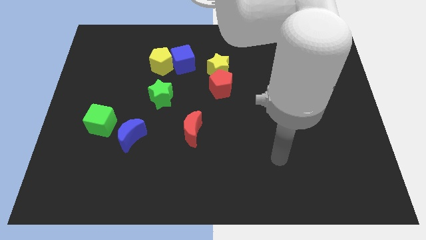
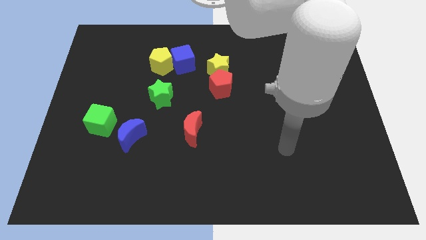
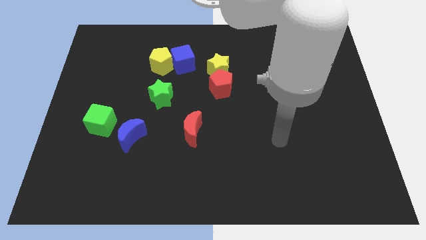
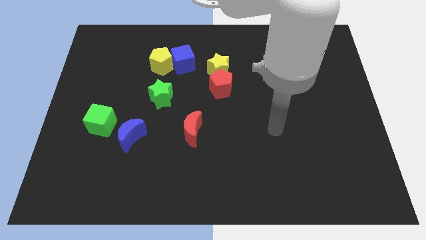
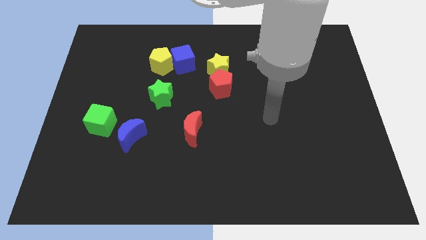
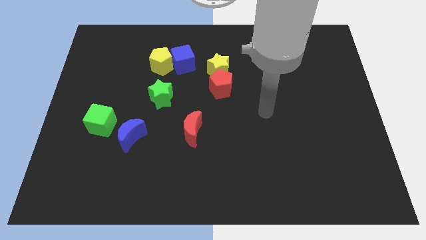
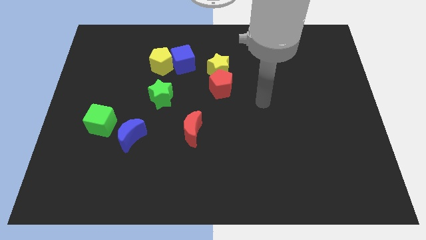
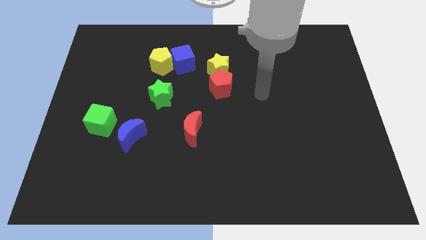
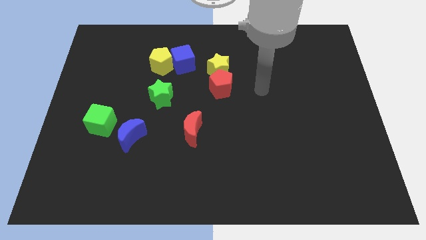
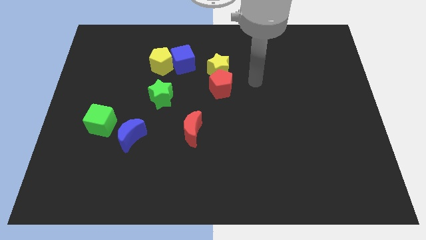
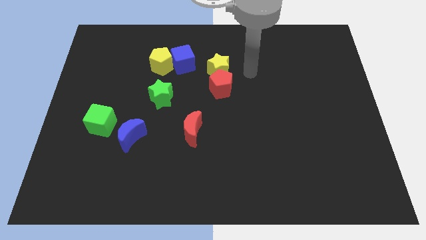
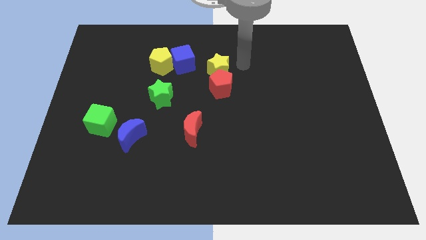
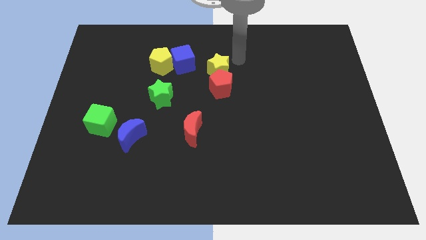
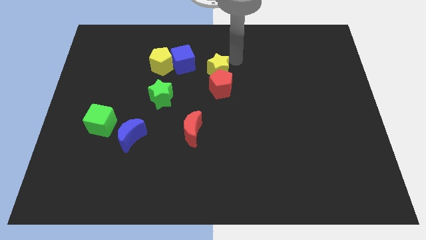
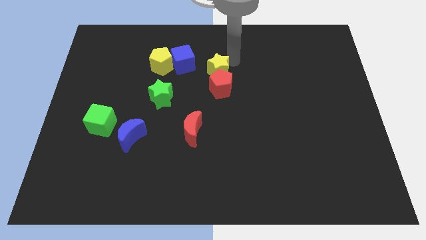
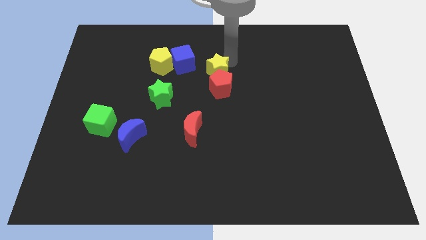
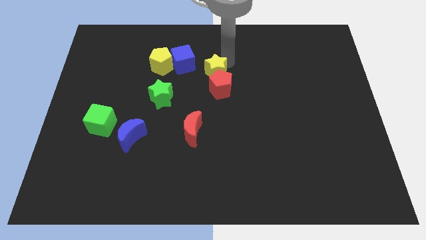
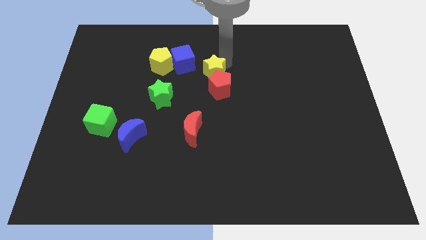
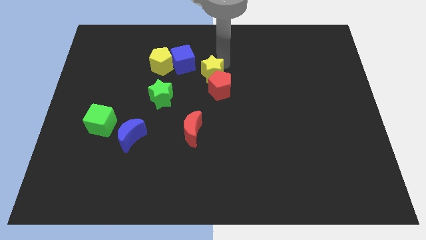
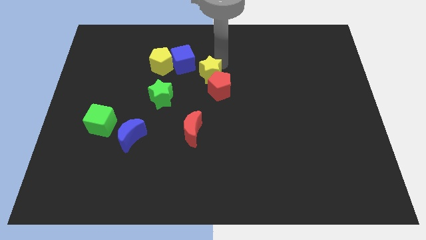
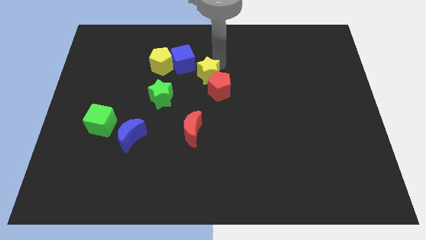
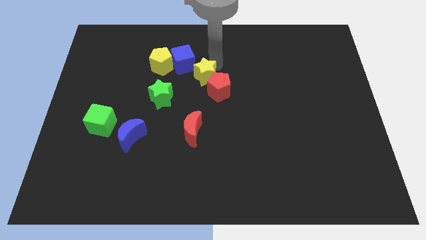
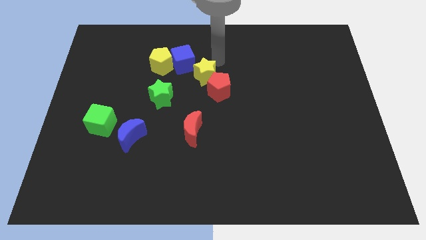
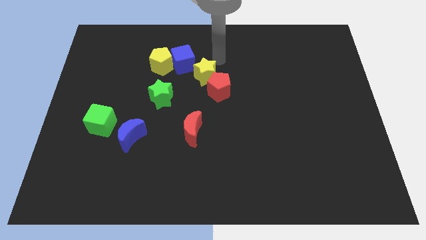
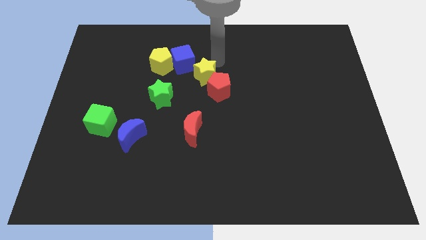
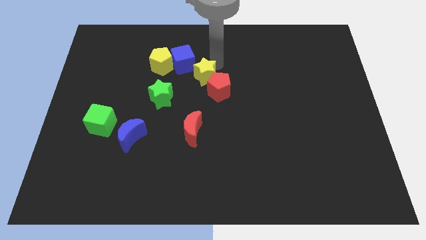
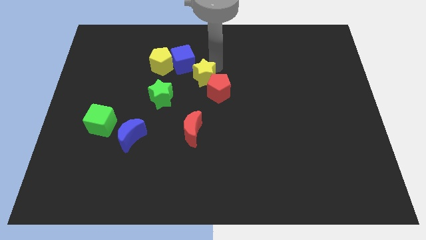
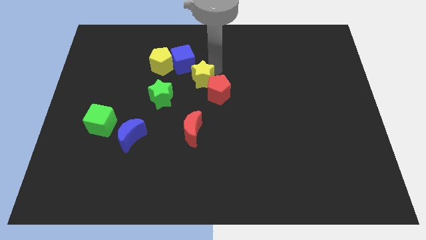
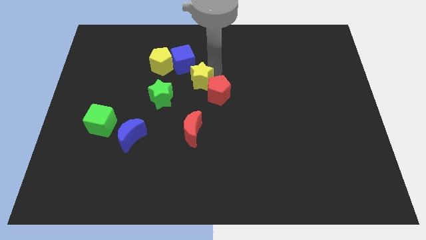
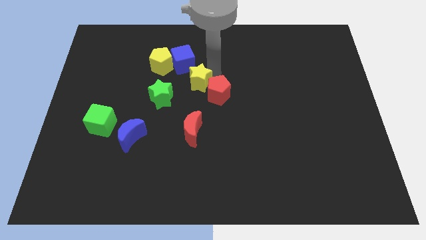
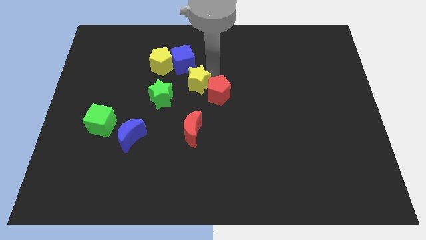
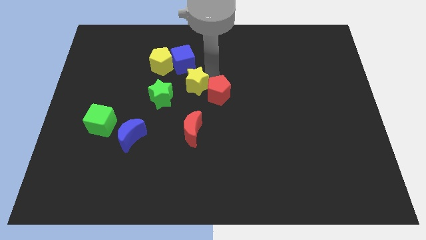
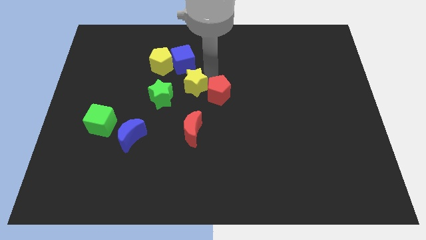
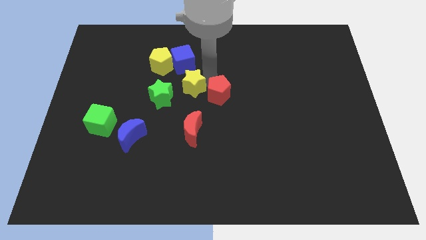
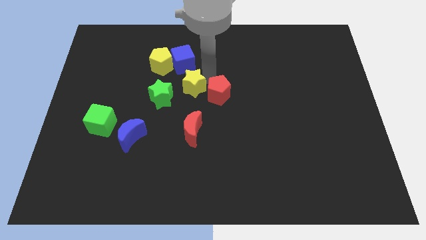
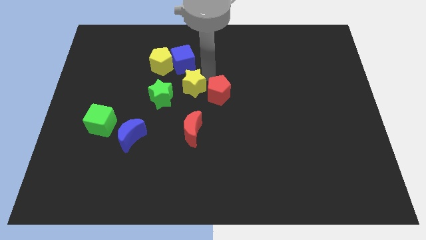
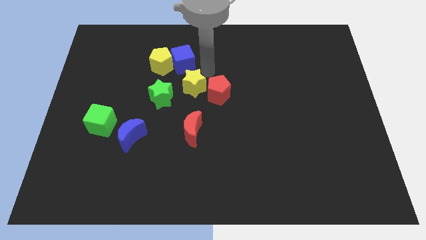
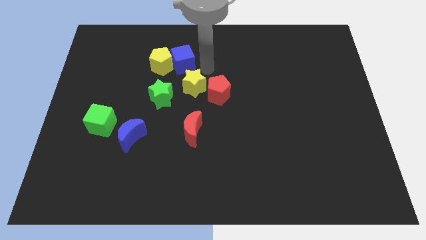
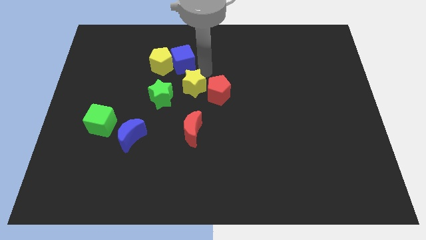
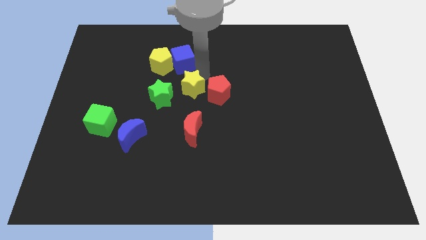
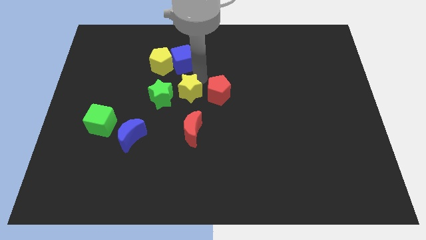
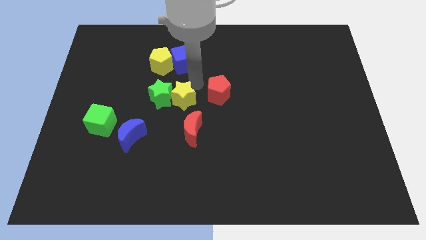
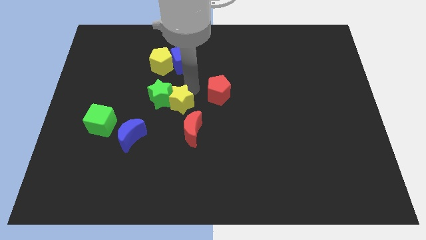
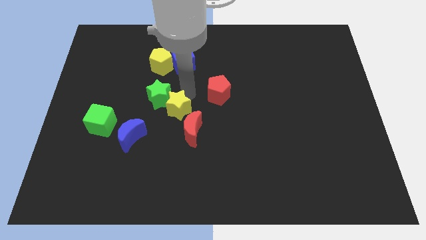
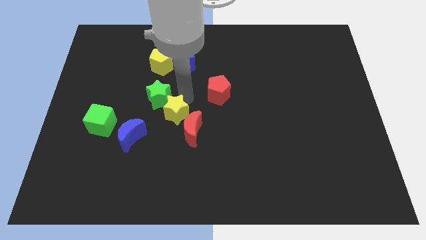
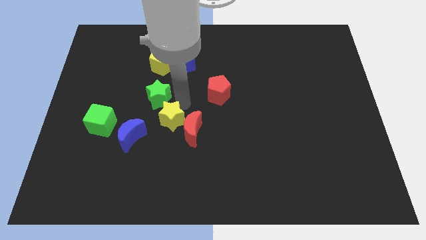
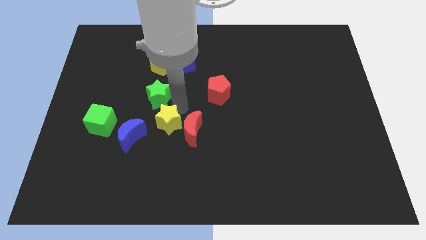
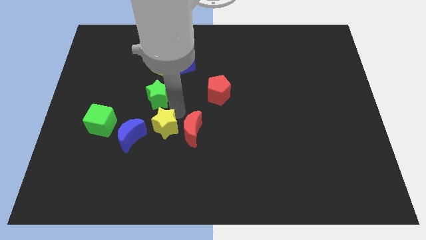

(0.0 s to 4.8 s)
slide the yellow star downwards and then to the left

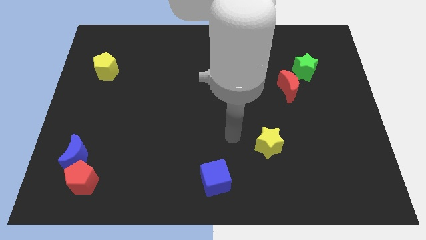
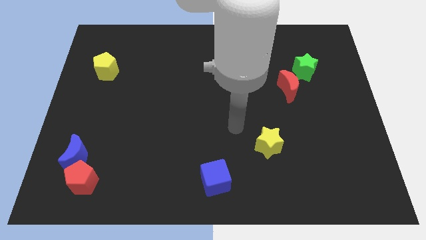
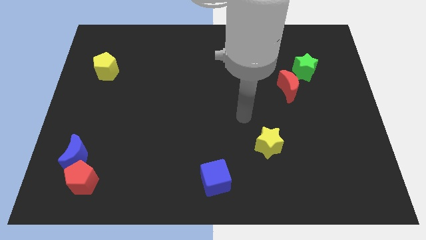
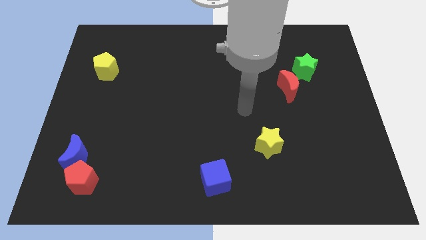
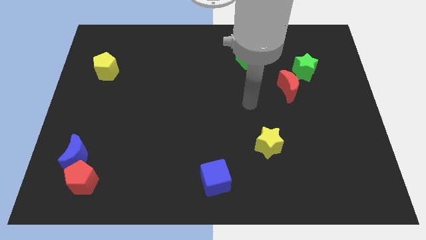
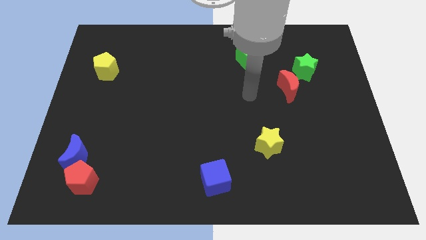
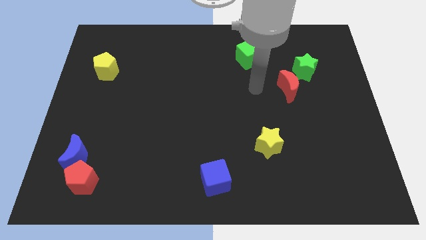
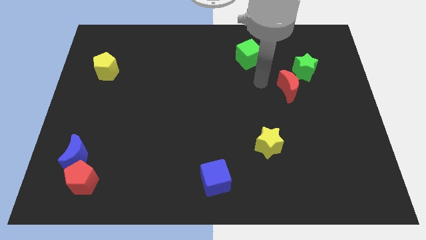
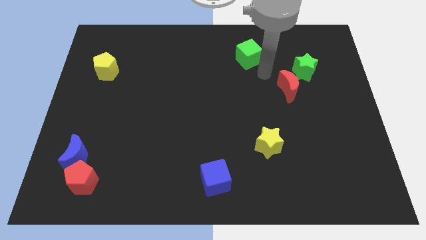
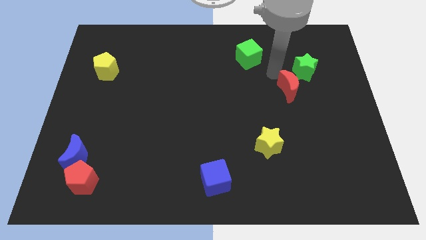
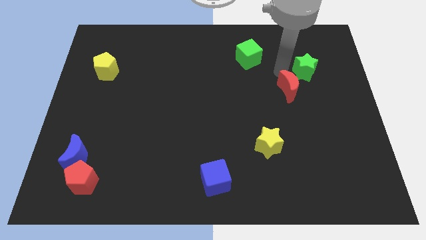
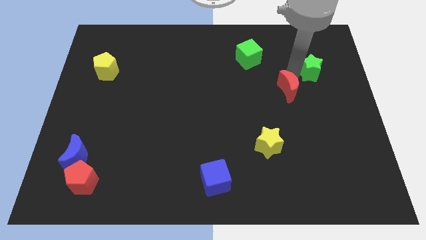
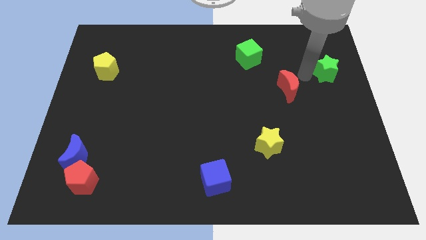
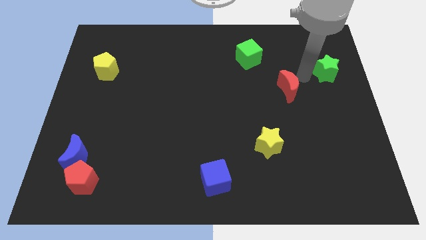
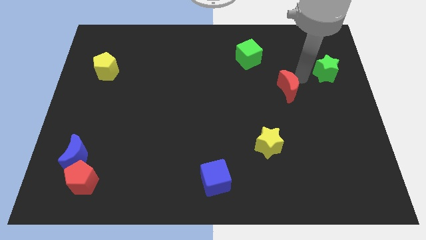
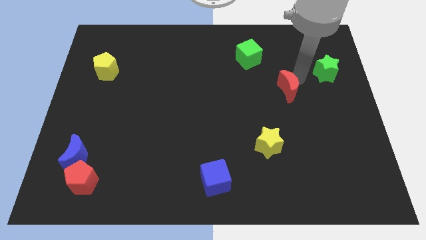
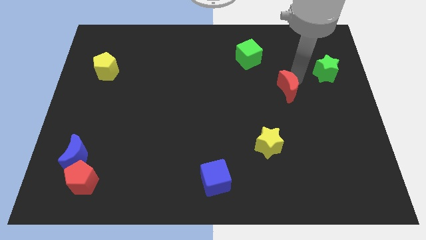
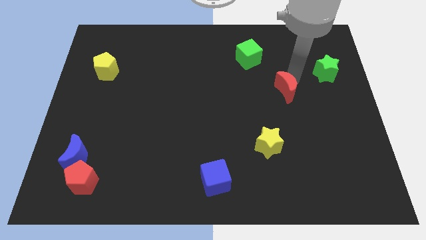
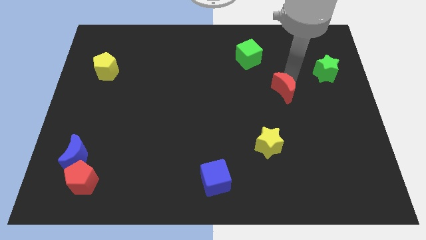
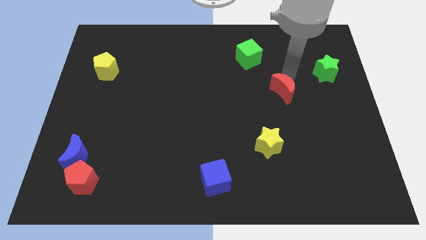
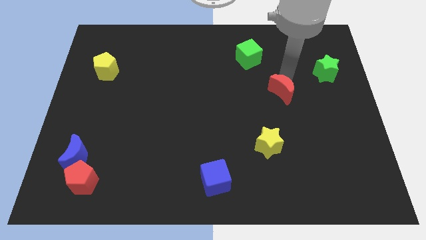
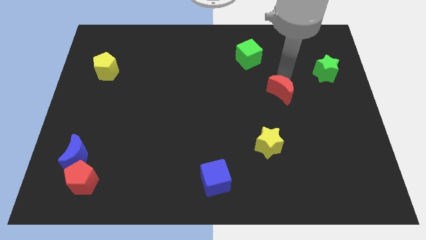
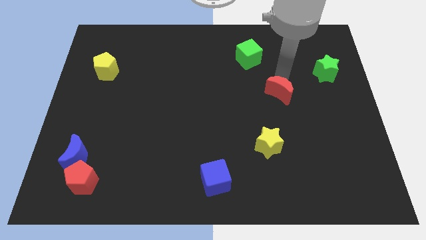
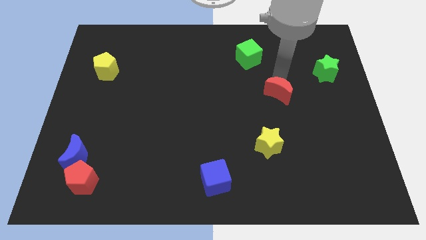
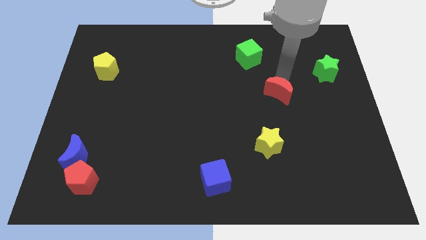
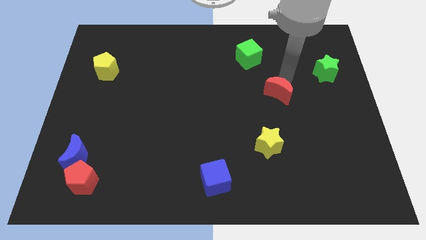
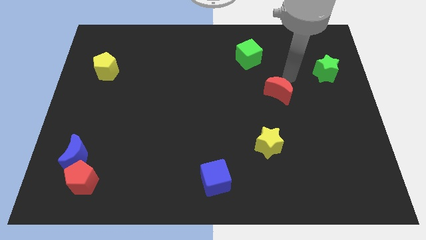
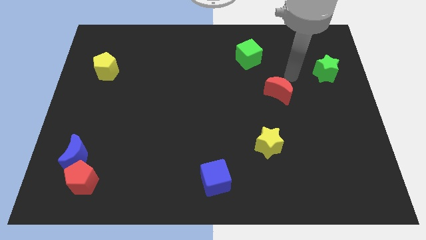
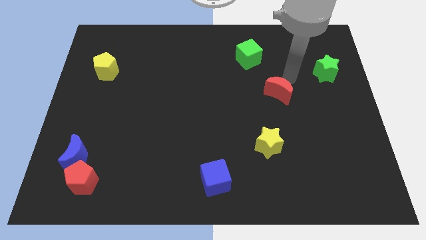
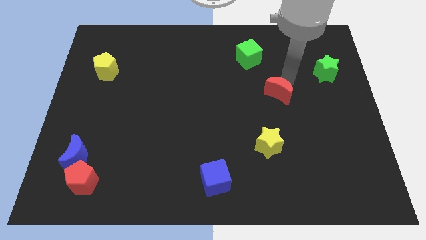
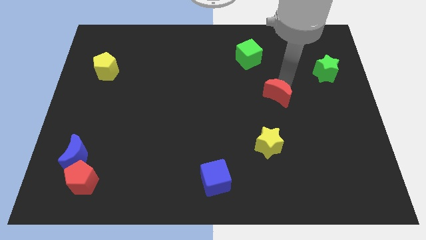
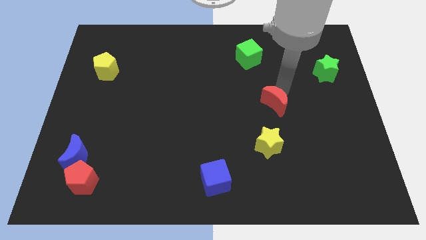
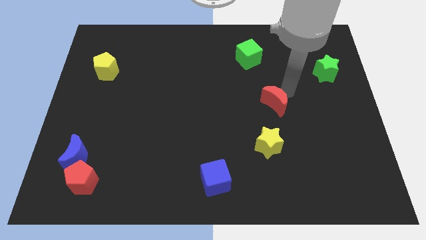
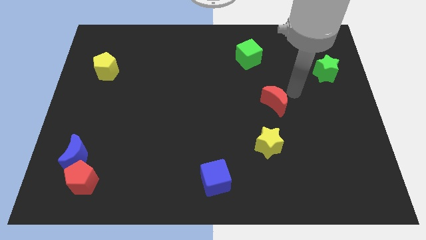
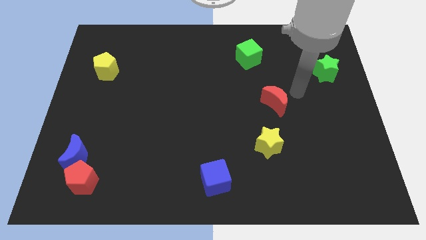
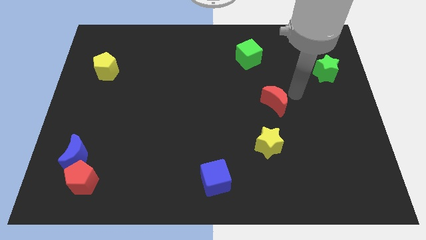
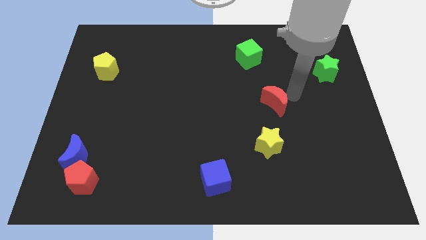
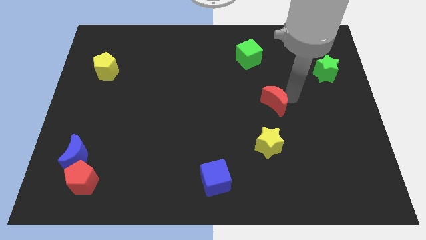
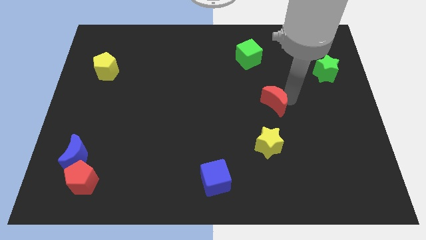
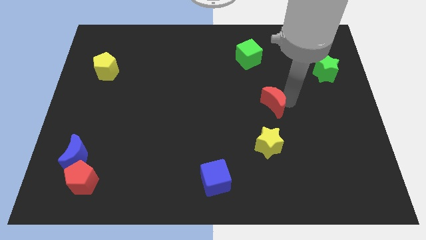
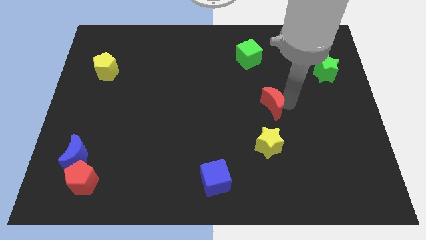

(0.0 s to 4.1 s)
move the red moon a bit down and left diagonally
